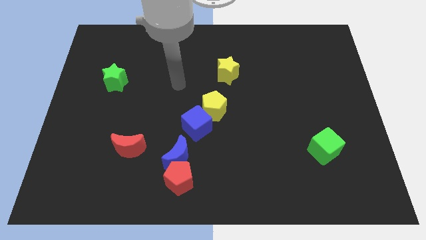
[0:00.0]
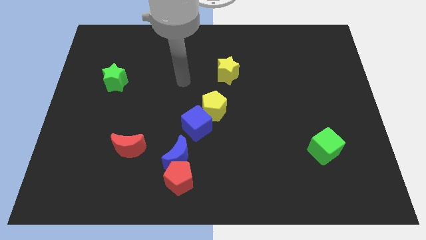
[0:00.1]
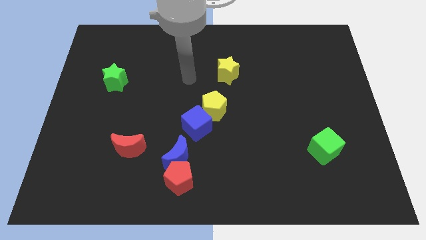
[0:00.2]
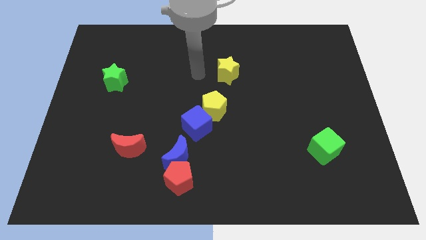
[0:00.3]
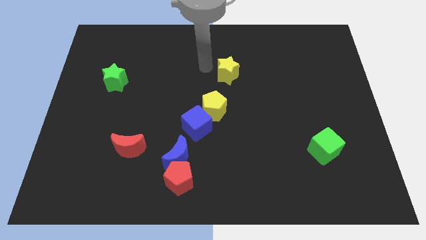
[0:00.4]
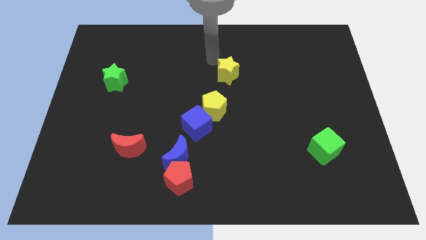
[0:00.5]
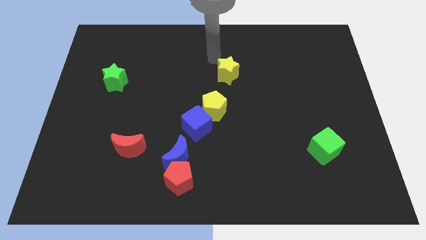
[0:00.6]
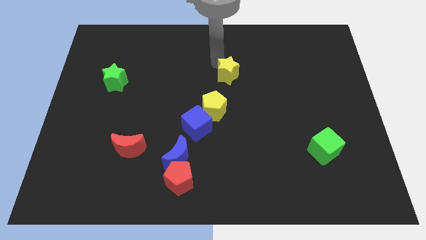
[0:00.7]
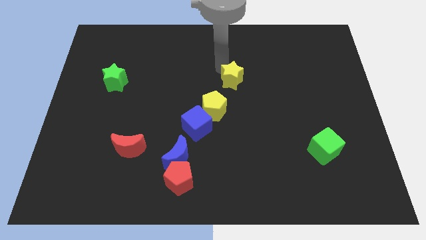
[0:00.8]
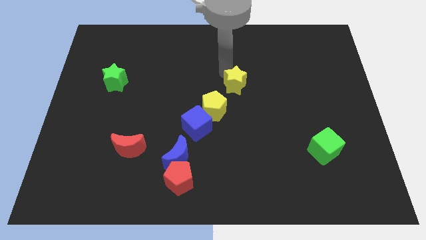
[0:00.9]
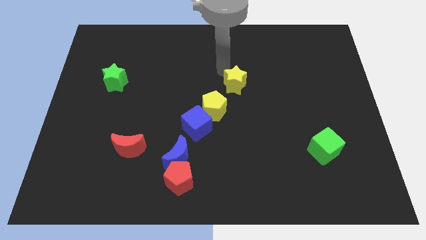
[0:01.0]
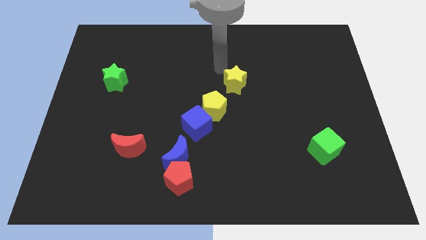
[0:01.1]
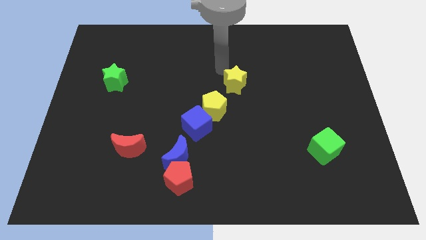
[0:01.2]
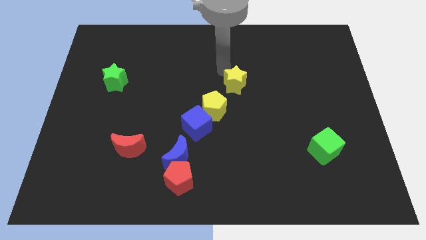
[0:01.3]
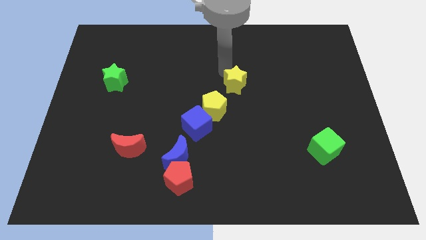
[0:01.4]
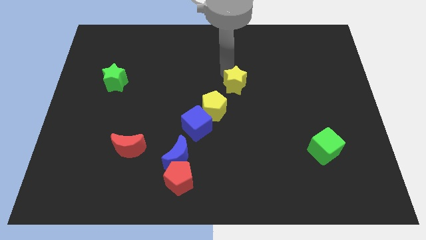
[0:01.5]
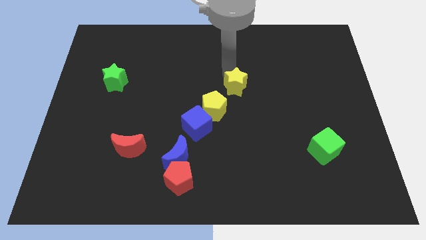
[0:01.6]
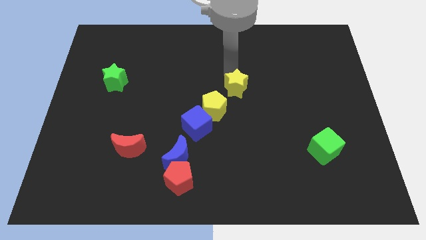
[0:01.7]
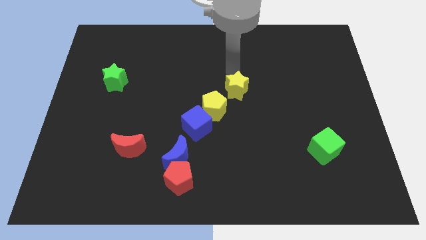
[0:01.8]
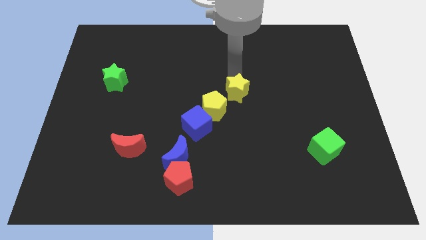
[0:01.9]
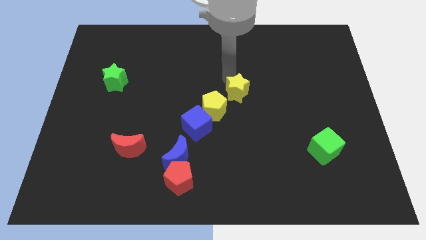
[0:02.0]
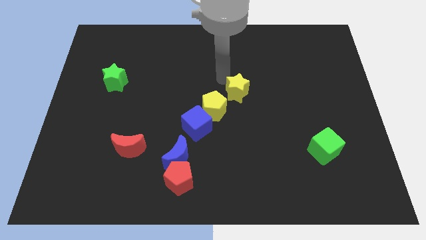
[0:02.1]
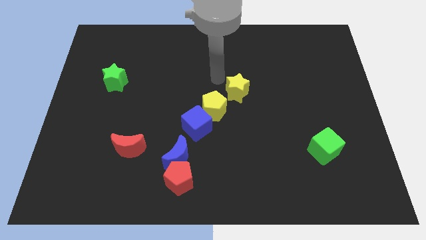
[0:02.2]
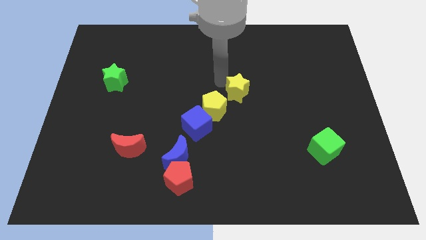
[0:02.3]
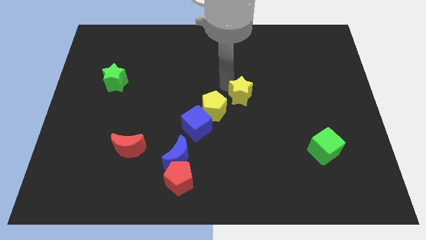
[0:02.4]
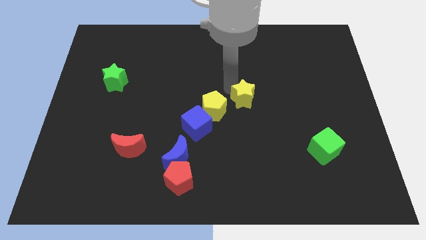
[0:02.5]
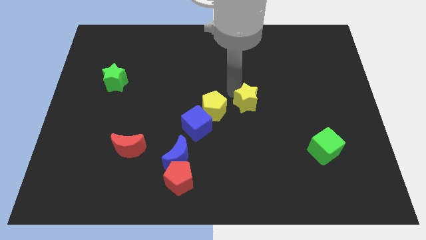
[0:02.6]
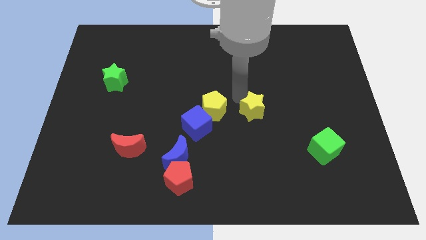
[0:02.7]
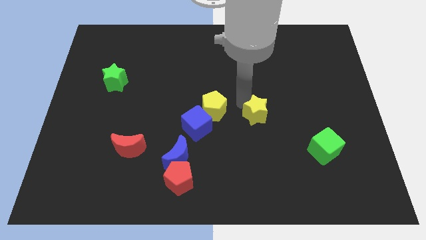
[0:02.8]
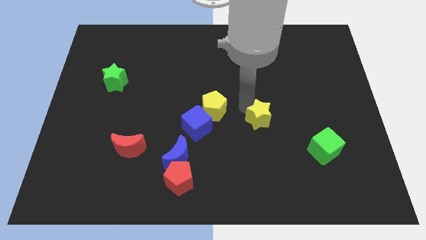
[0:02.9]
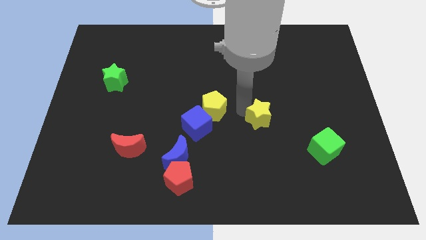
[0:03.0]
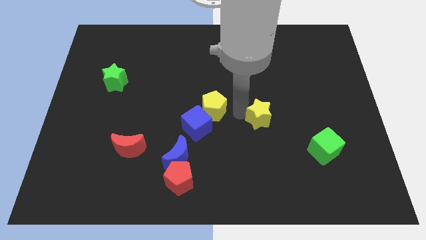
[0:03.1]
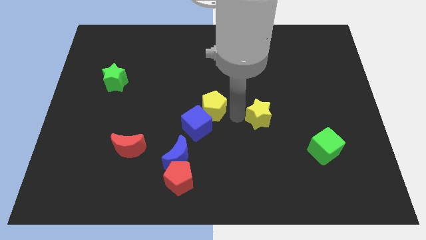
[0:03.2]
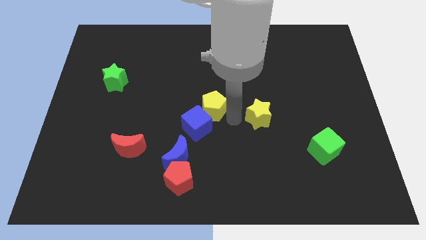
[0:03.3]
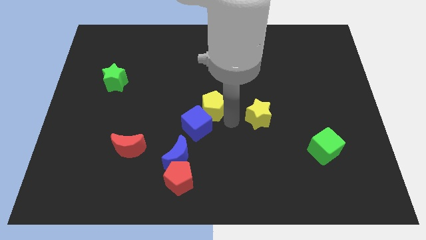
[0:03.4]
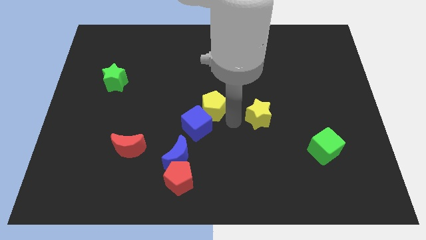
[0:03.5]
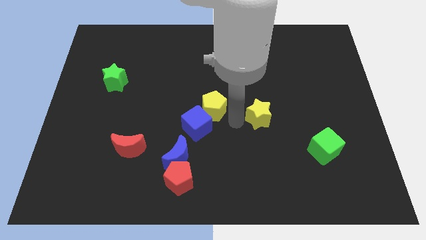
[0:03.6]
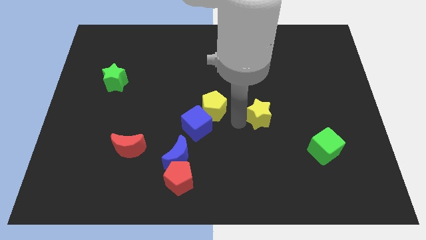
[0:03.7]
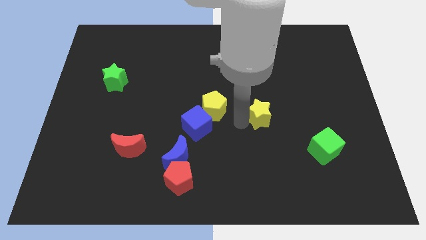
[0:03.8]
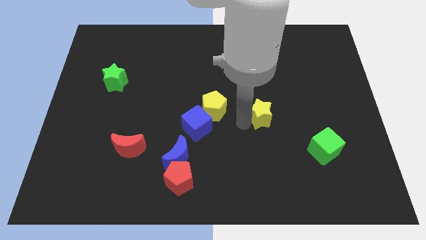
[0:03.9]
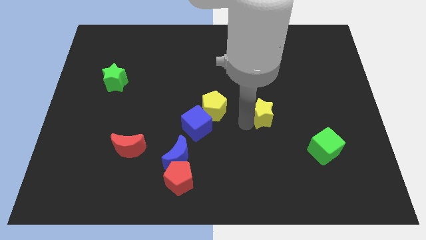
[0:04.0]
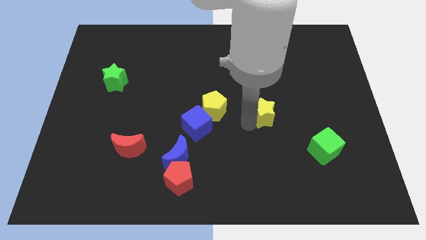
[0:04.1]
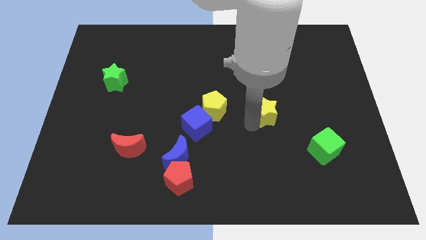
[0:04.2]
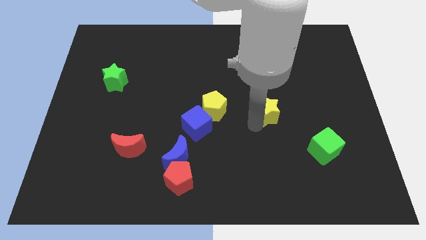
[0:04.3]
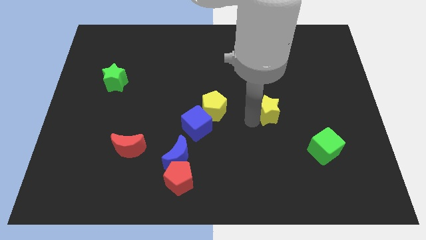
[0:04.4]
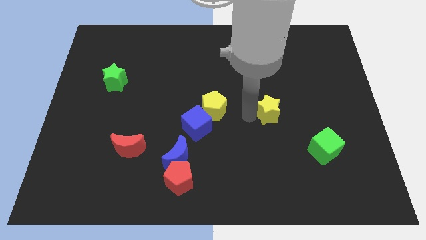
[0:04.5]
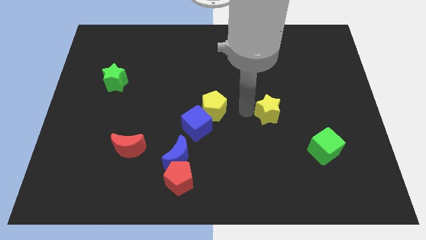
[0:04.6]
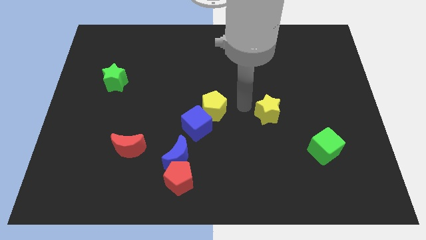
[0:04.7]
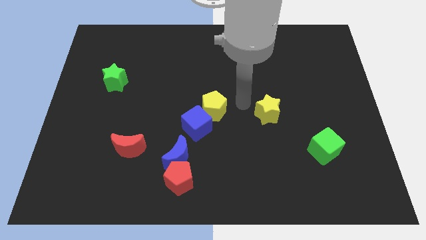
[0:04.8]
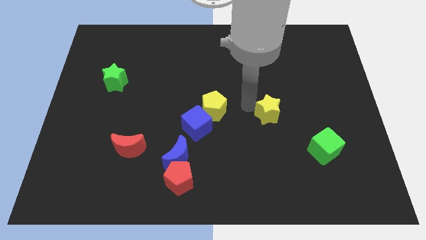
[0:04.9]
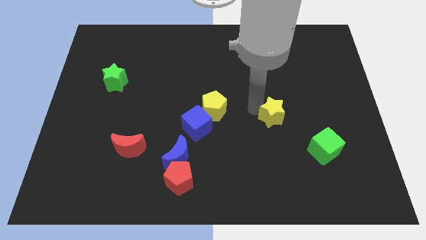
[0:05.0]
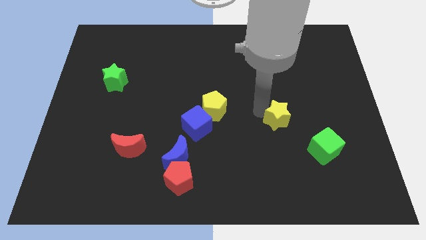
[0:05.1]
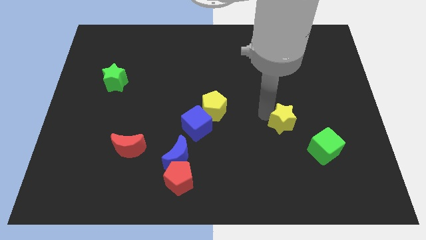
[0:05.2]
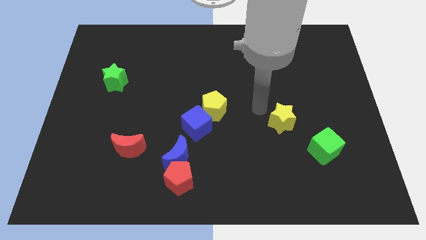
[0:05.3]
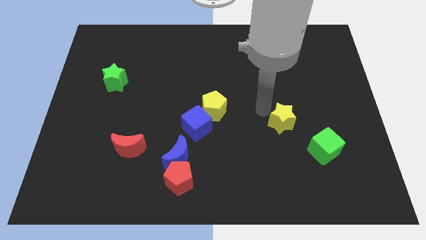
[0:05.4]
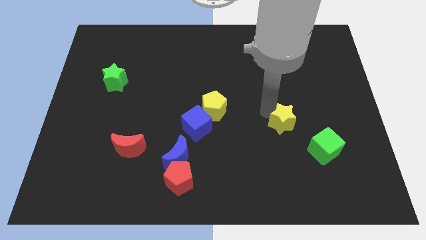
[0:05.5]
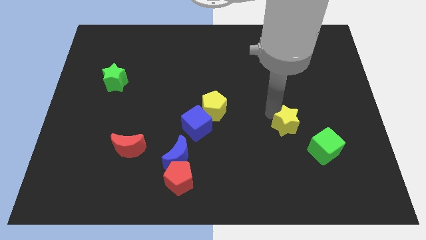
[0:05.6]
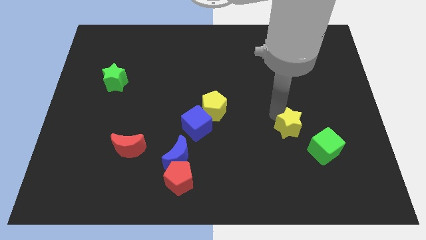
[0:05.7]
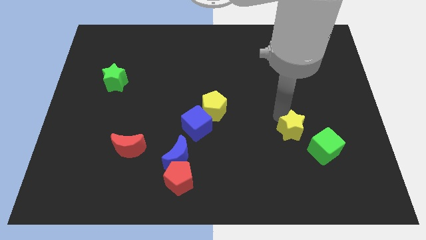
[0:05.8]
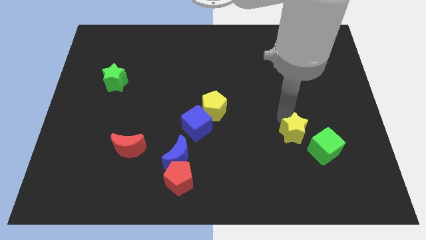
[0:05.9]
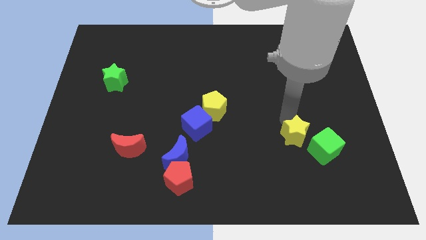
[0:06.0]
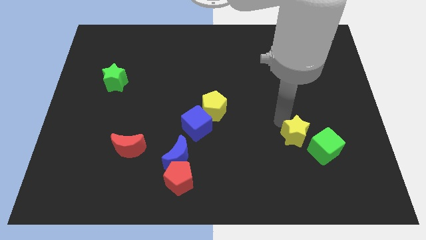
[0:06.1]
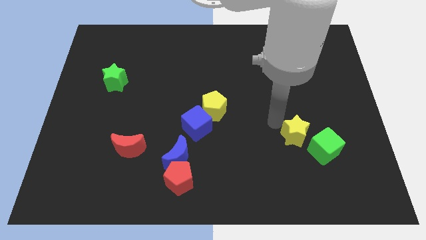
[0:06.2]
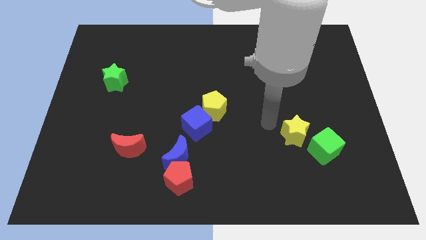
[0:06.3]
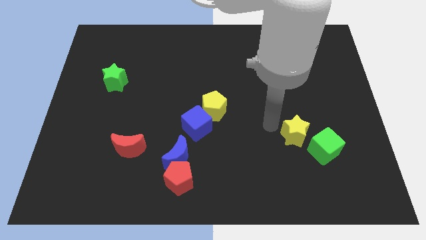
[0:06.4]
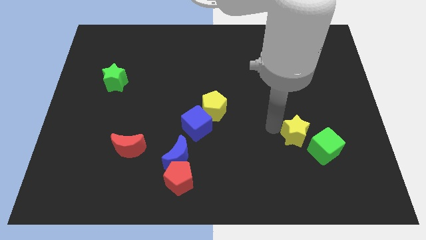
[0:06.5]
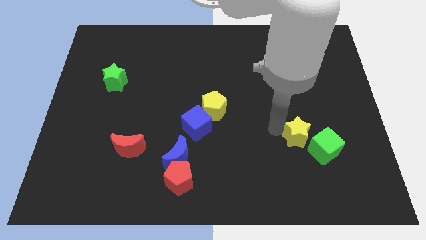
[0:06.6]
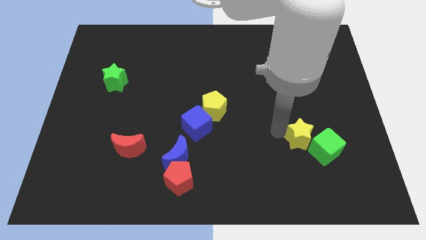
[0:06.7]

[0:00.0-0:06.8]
slide the yellow star close to the green cube
